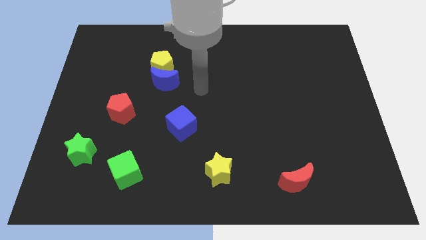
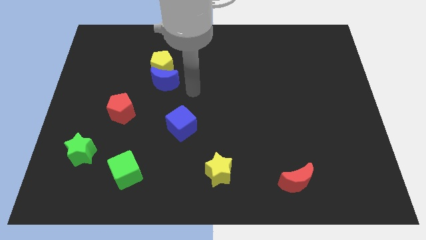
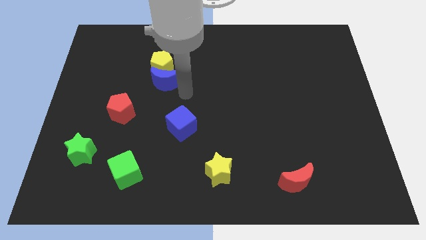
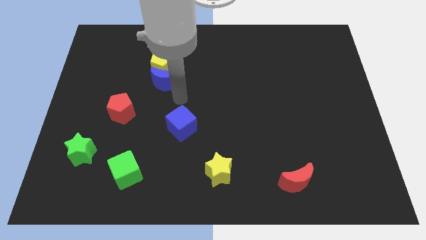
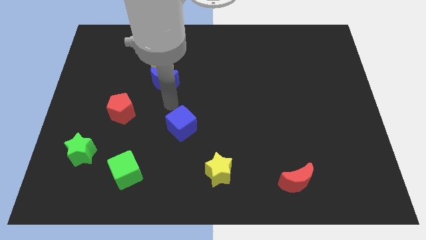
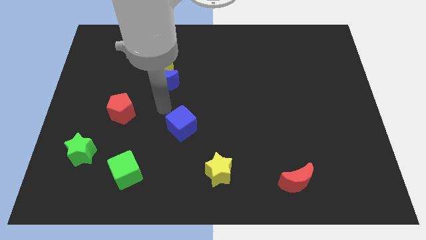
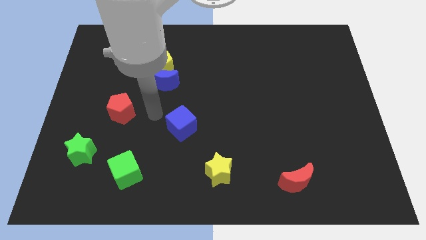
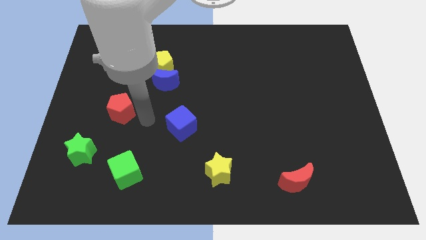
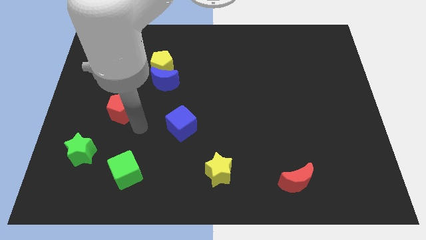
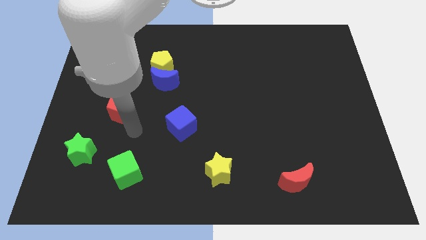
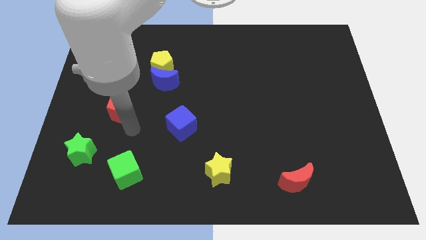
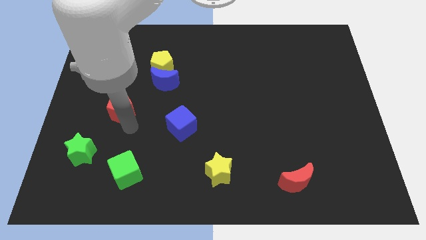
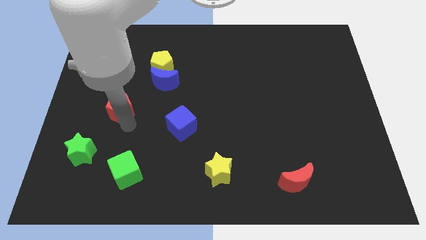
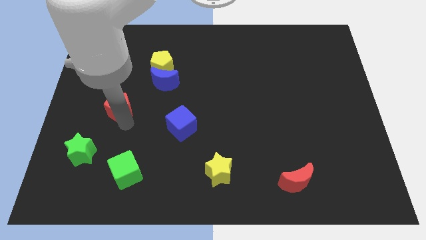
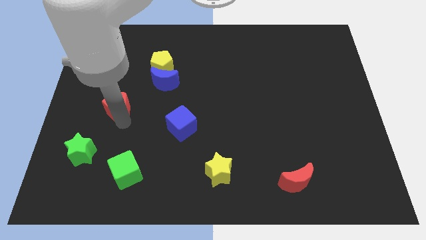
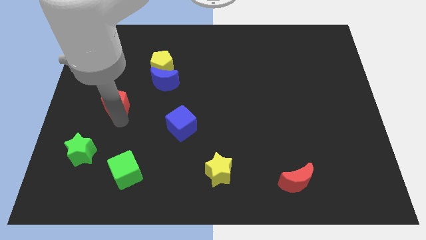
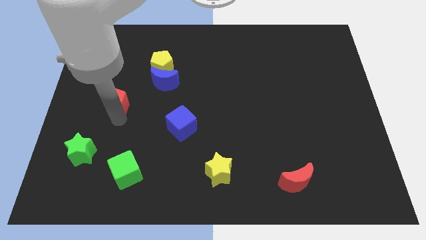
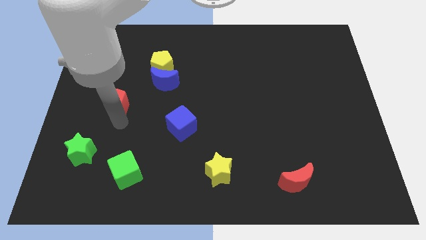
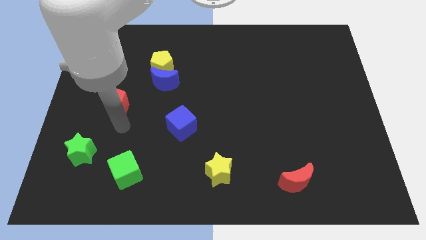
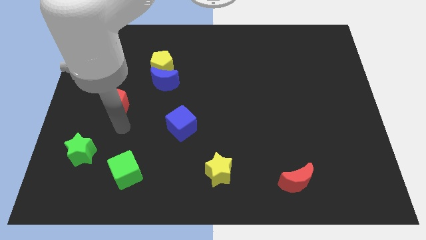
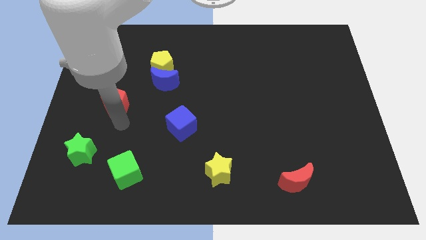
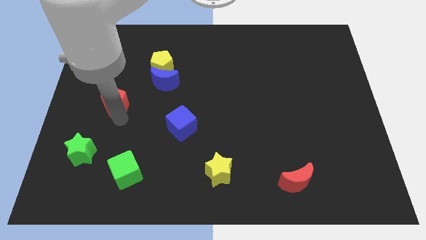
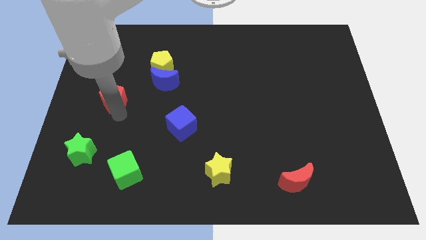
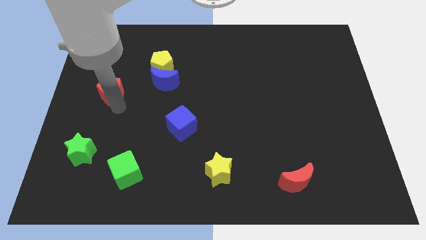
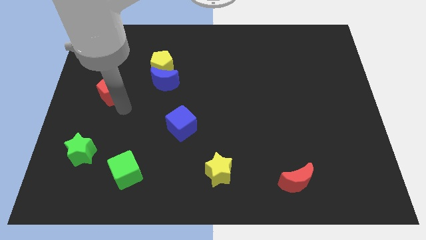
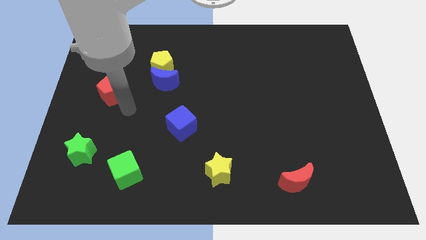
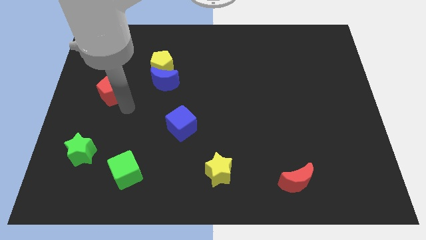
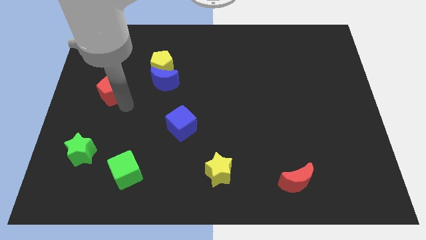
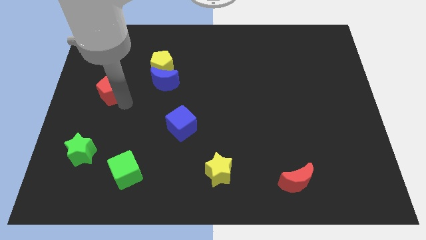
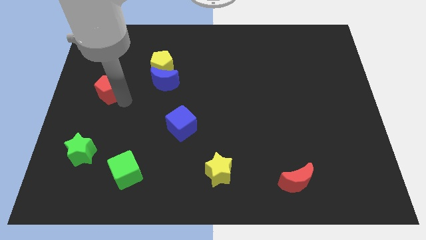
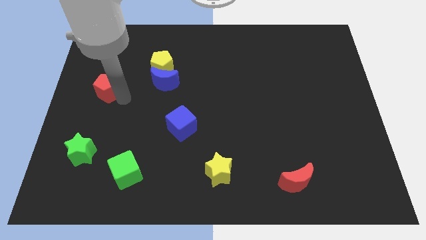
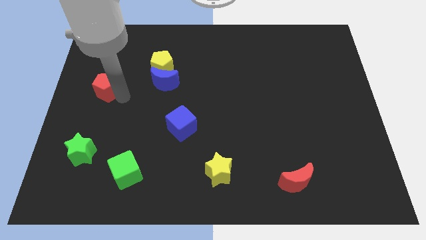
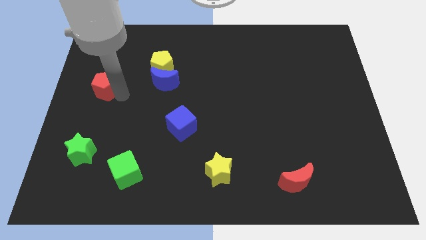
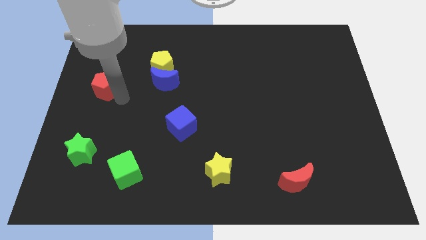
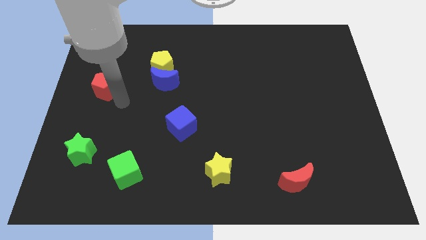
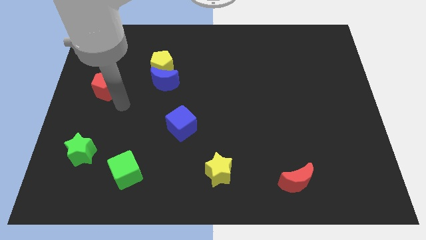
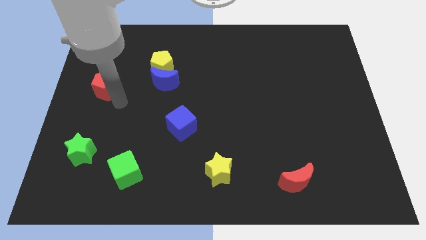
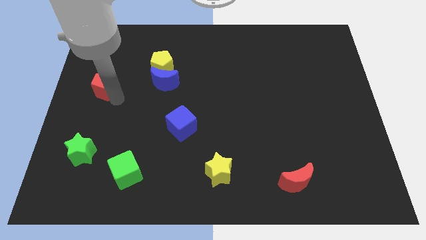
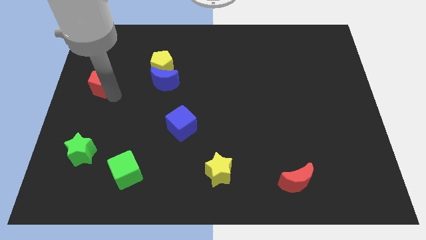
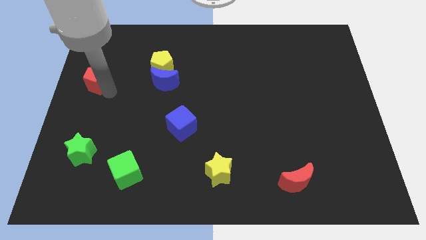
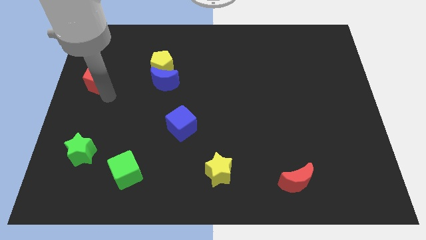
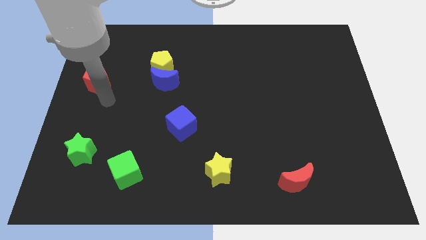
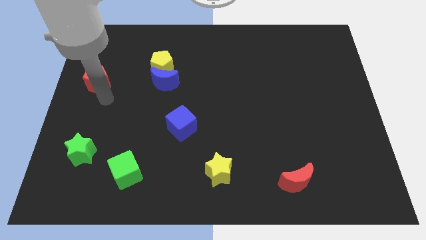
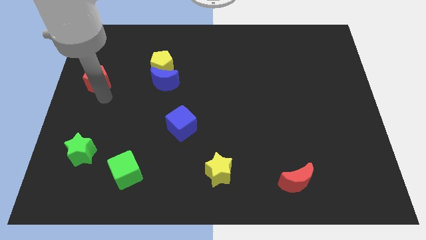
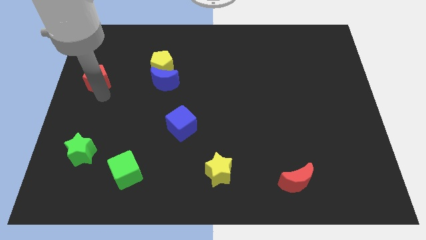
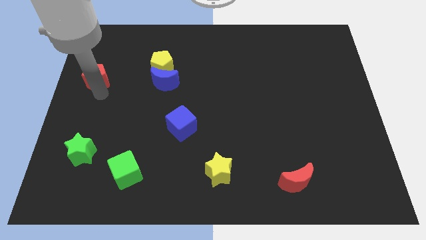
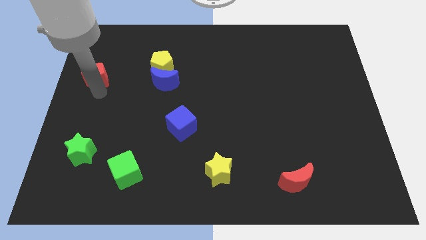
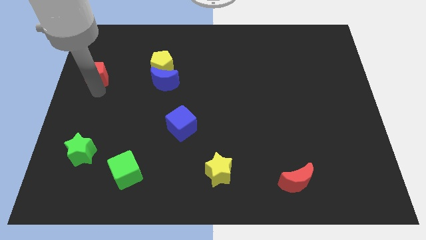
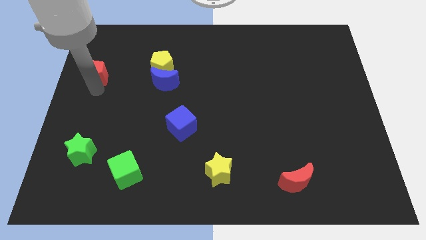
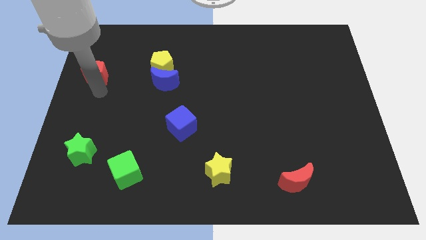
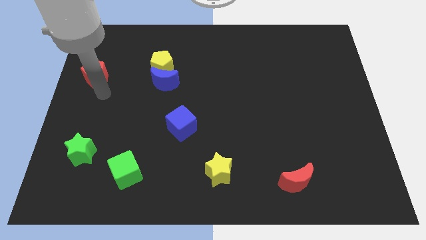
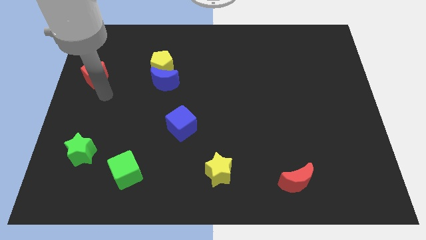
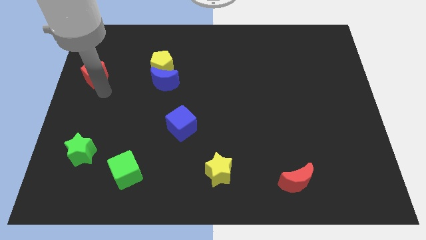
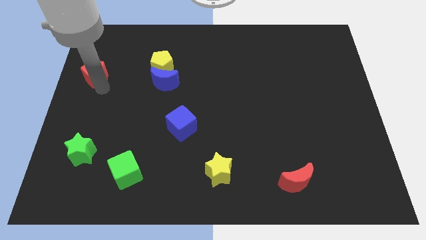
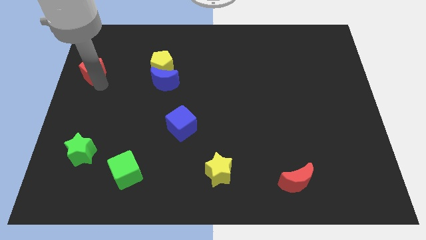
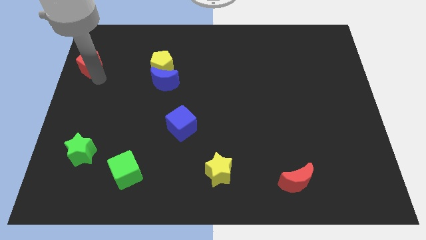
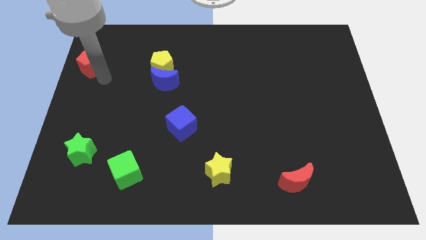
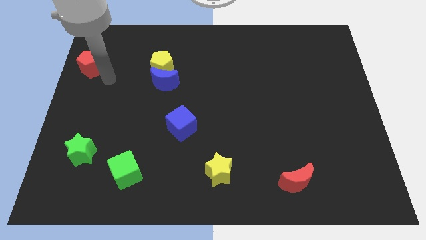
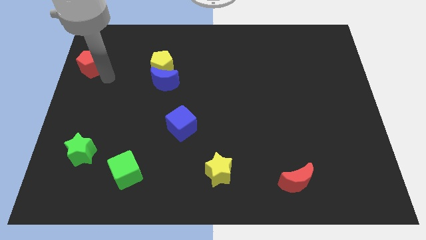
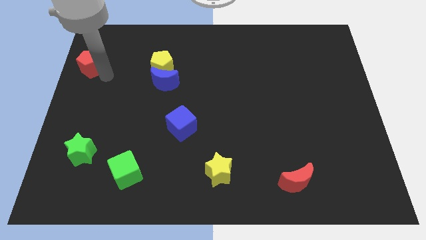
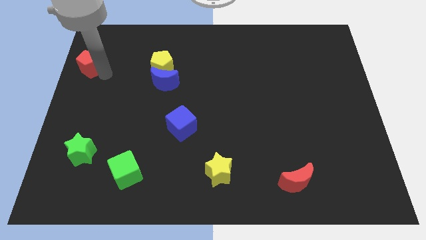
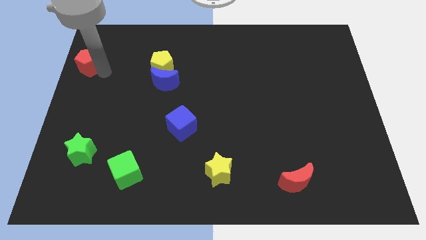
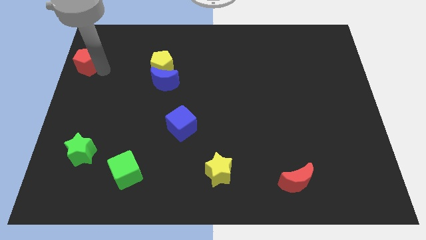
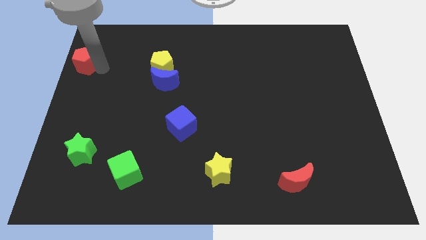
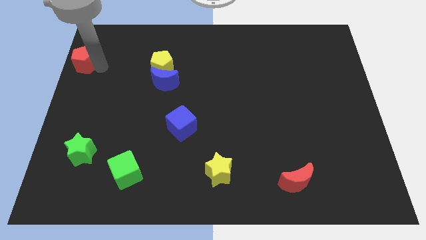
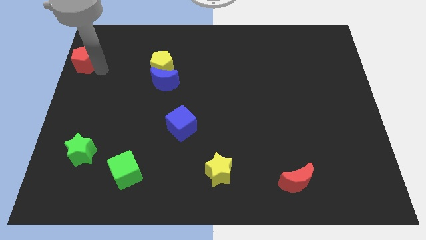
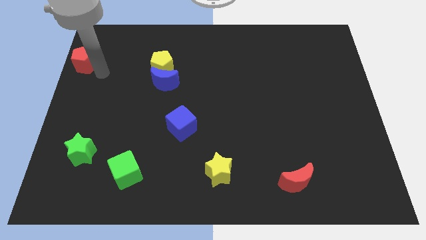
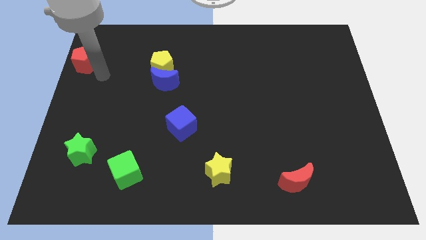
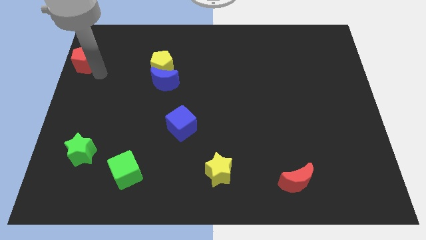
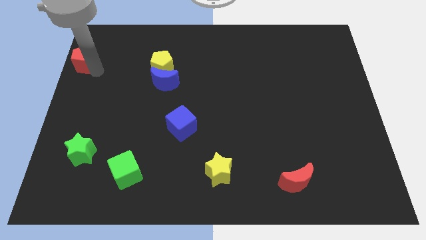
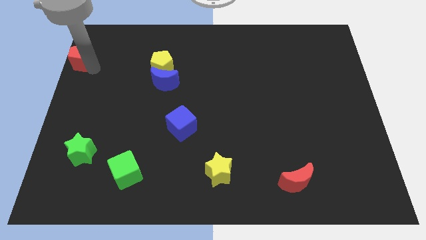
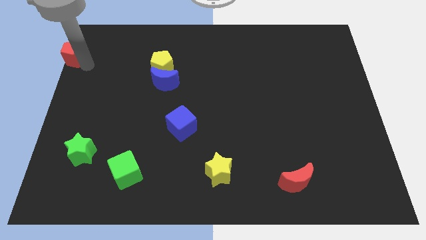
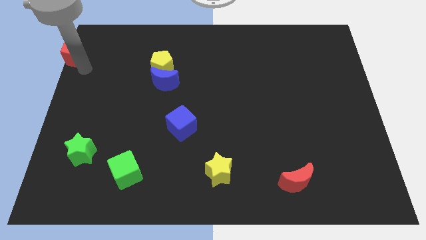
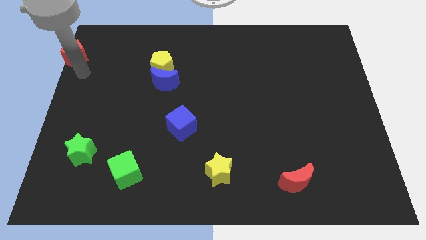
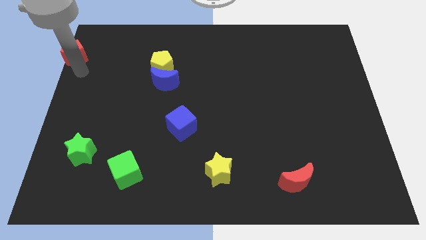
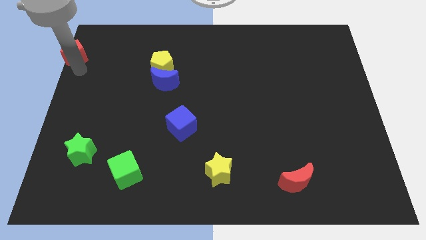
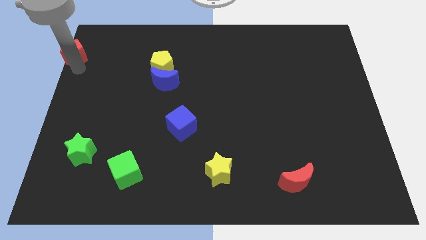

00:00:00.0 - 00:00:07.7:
slide the red pentagon to the top left
